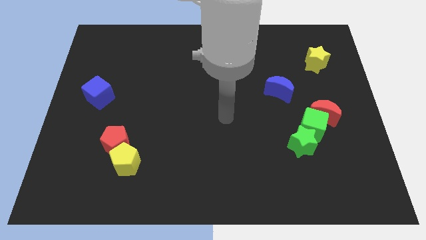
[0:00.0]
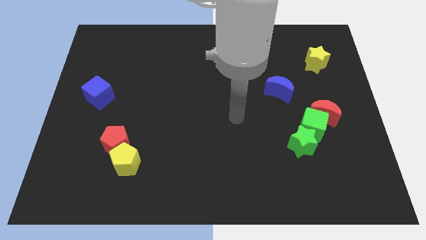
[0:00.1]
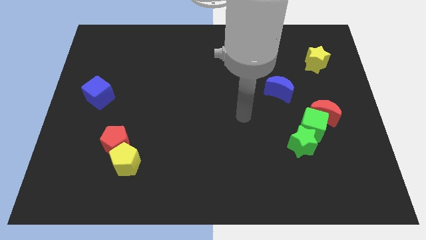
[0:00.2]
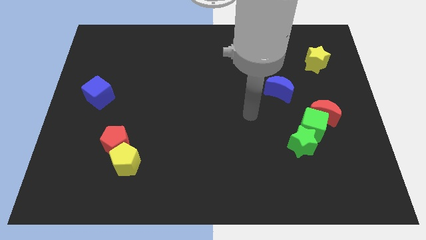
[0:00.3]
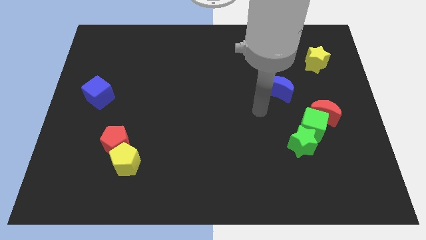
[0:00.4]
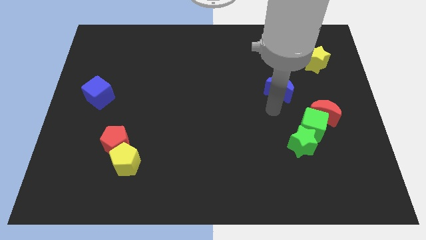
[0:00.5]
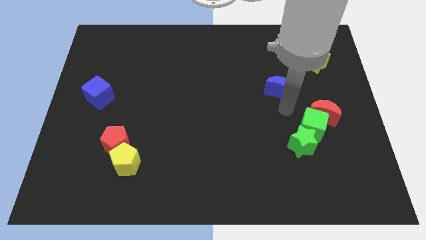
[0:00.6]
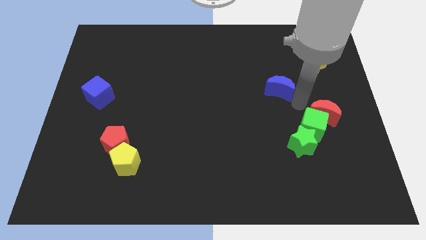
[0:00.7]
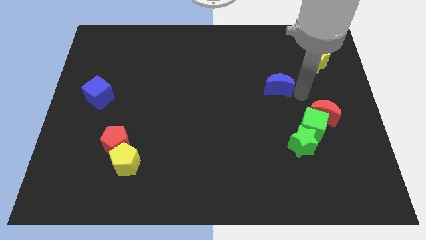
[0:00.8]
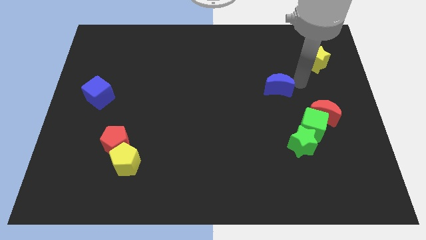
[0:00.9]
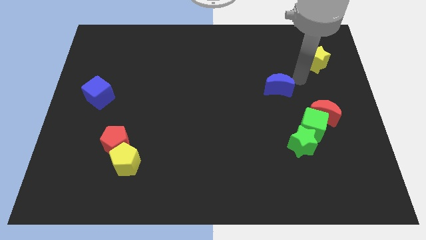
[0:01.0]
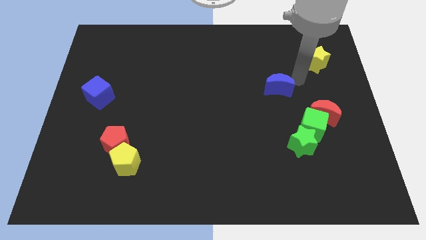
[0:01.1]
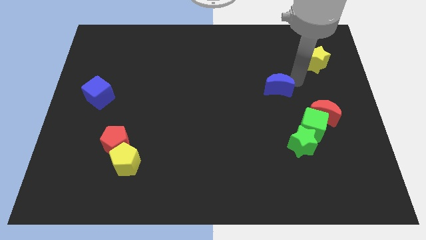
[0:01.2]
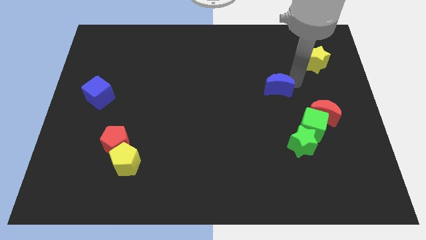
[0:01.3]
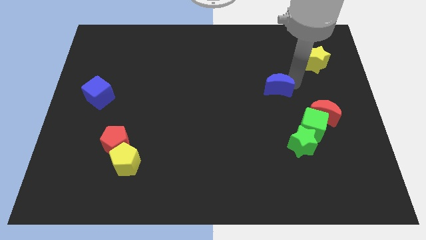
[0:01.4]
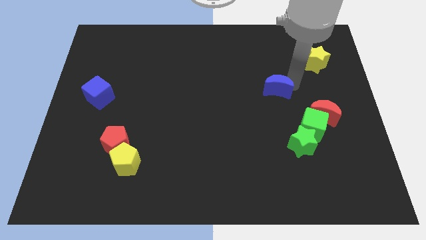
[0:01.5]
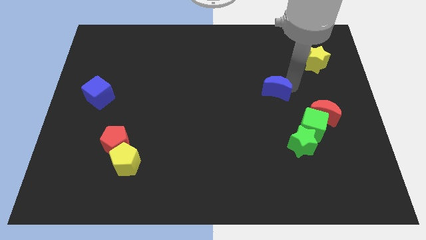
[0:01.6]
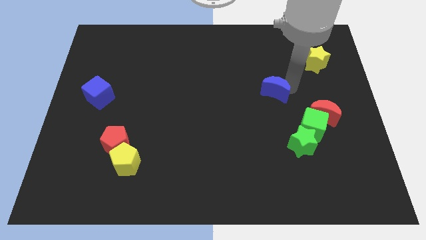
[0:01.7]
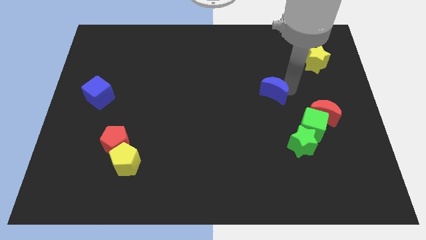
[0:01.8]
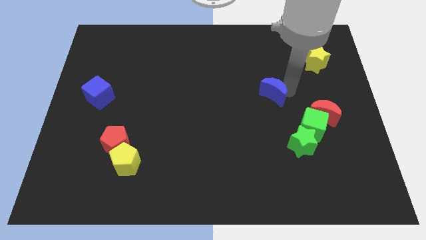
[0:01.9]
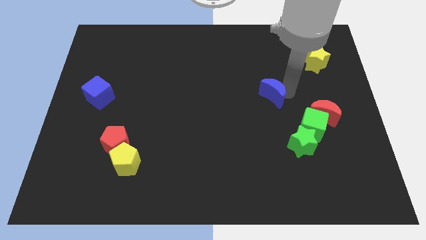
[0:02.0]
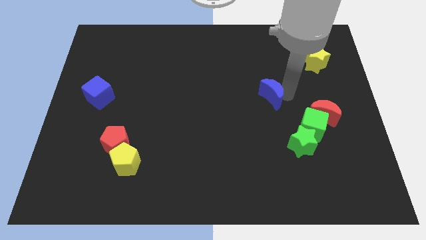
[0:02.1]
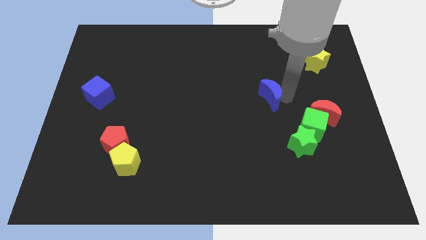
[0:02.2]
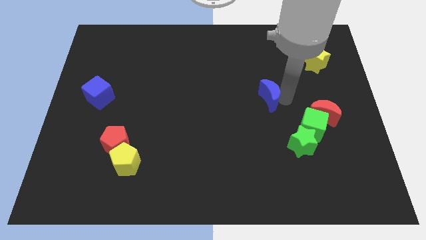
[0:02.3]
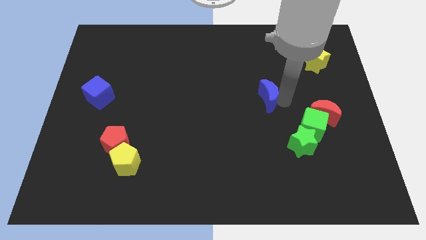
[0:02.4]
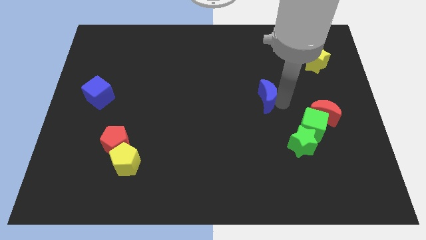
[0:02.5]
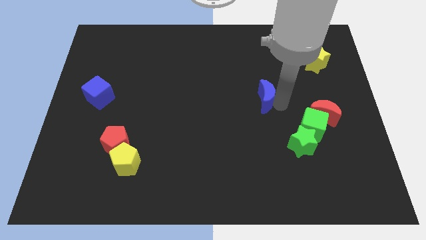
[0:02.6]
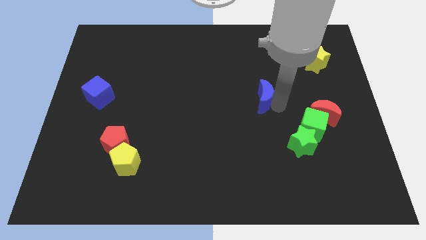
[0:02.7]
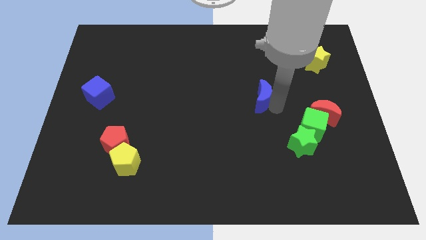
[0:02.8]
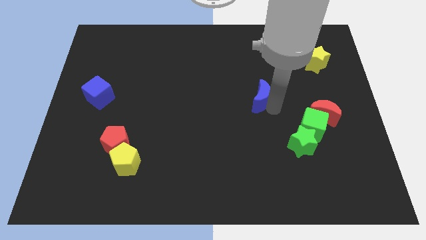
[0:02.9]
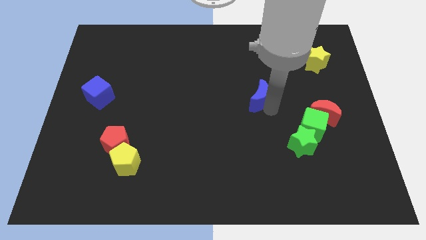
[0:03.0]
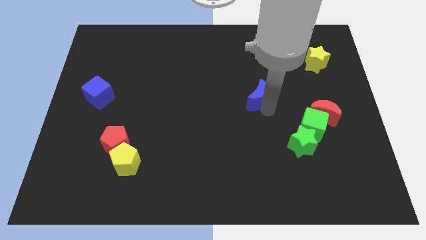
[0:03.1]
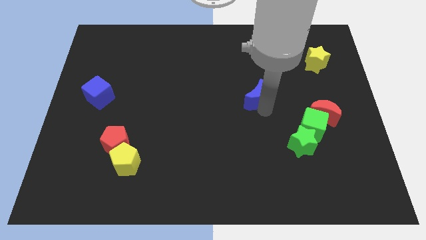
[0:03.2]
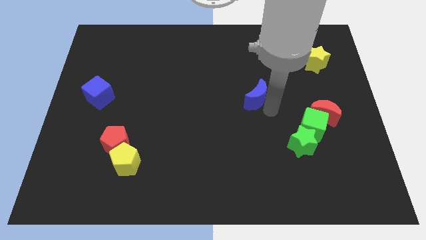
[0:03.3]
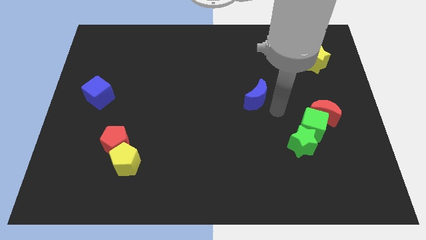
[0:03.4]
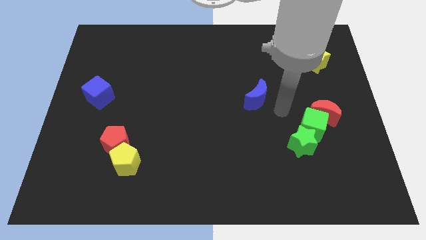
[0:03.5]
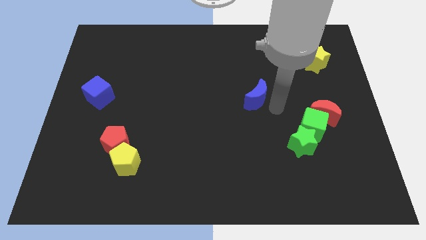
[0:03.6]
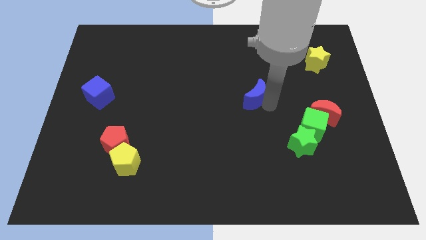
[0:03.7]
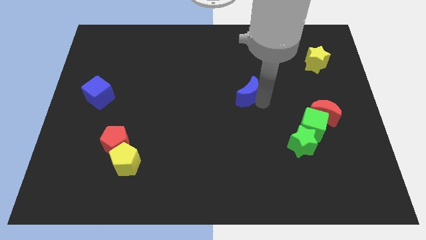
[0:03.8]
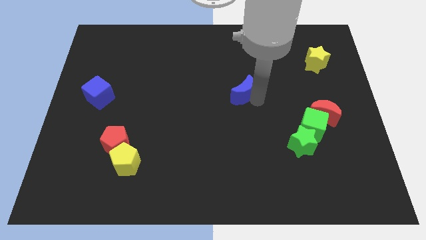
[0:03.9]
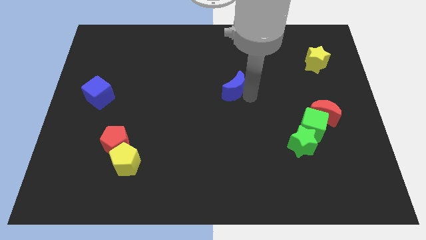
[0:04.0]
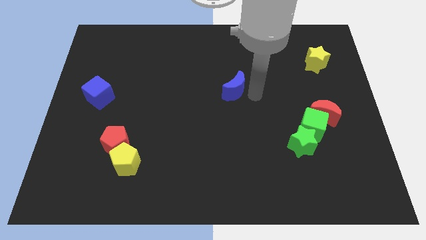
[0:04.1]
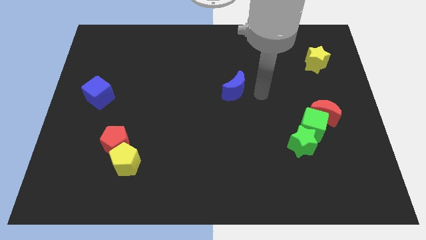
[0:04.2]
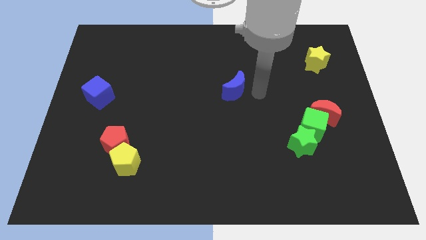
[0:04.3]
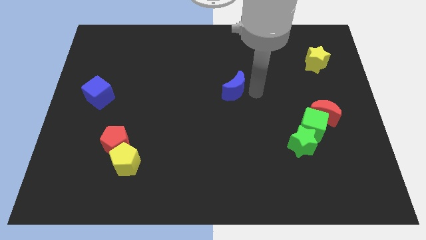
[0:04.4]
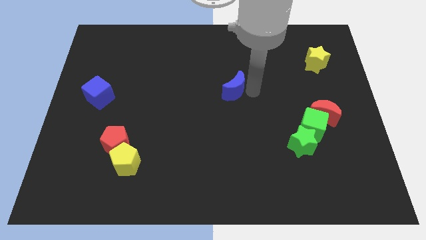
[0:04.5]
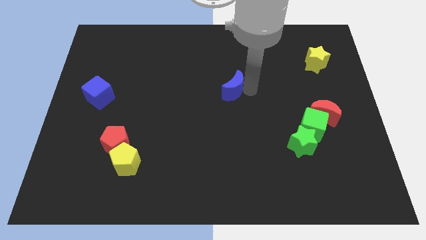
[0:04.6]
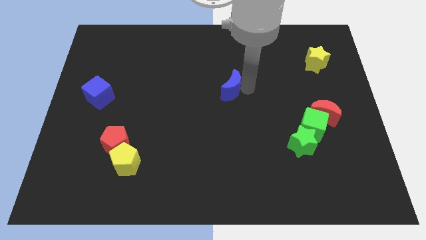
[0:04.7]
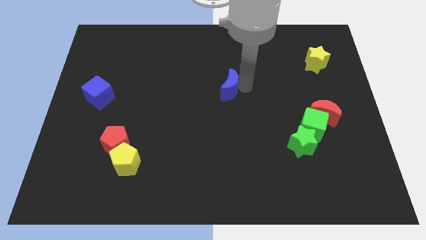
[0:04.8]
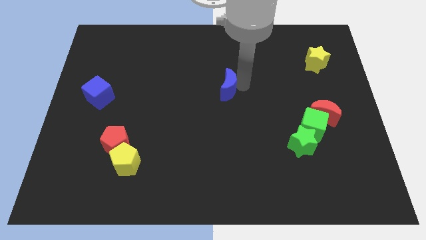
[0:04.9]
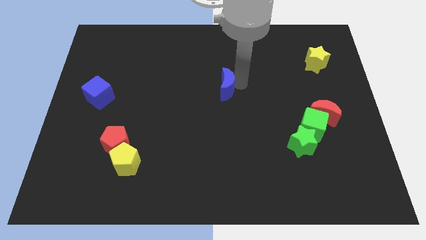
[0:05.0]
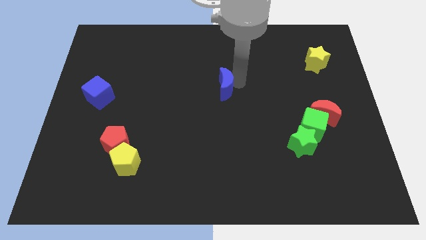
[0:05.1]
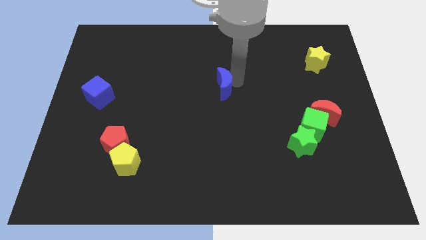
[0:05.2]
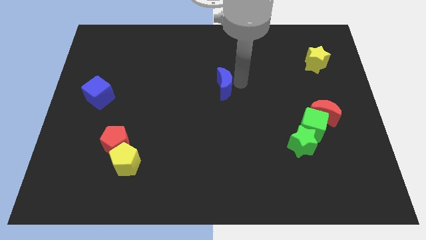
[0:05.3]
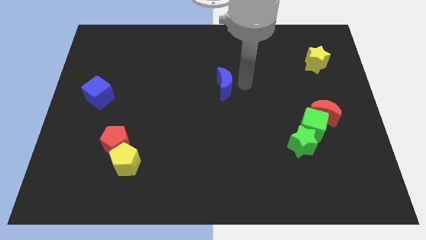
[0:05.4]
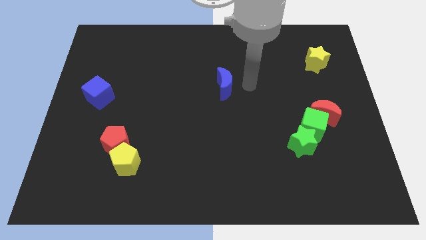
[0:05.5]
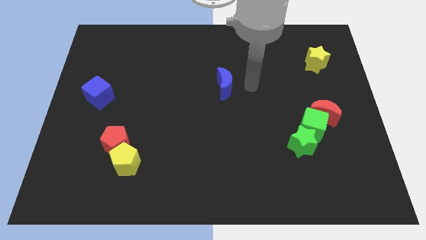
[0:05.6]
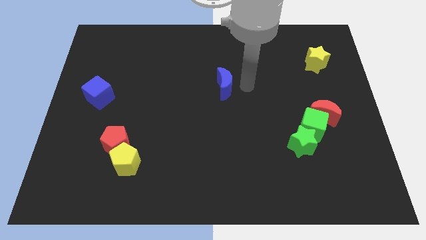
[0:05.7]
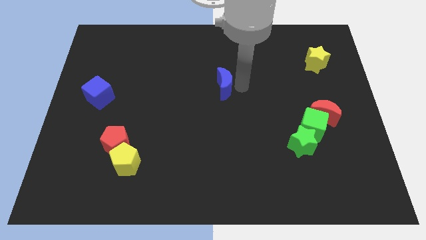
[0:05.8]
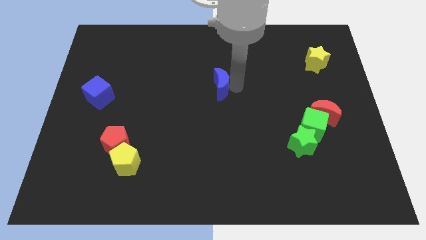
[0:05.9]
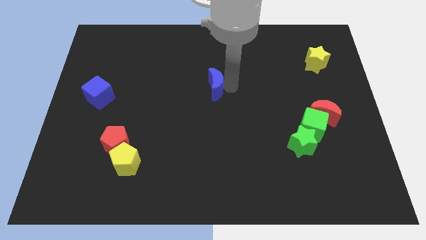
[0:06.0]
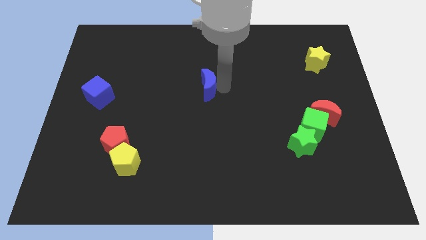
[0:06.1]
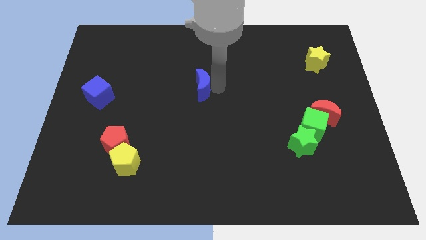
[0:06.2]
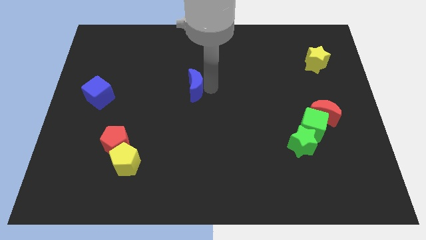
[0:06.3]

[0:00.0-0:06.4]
push the blue moon to the left

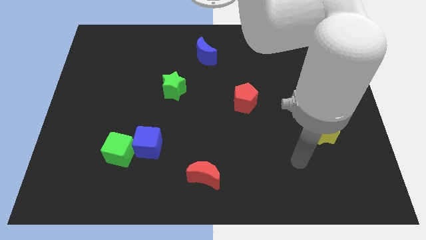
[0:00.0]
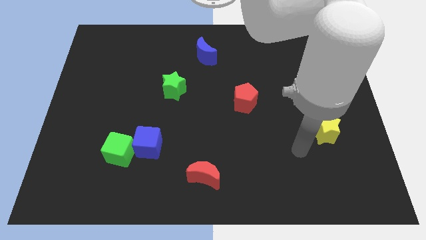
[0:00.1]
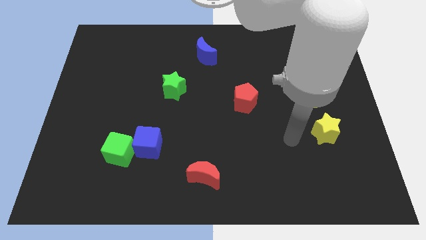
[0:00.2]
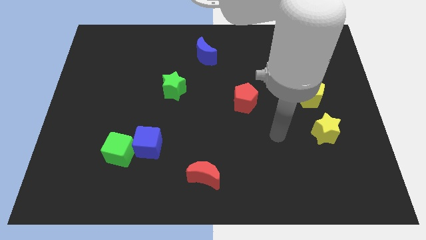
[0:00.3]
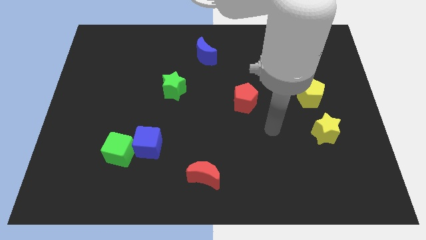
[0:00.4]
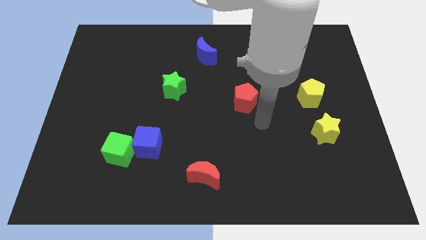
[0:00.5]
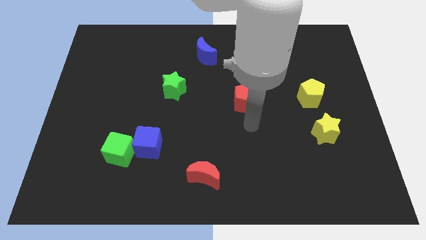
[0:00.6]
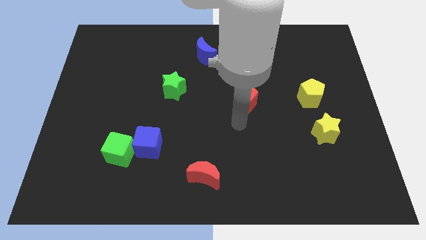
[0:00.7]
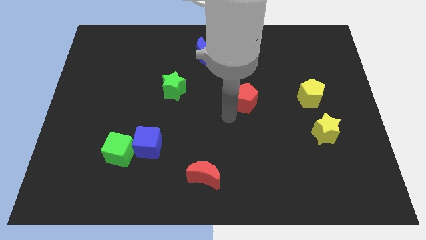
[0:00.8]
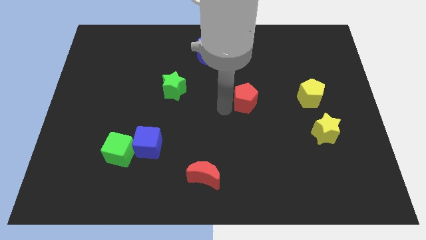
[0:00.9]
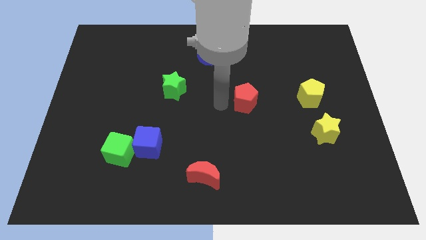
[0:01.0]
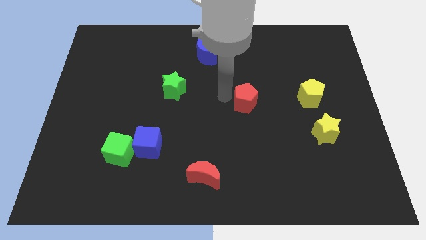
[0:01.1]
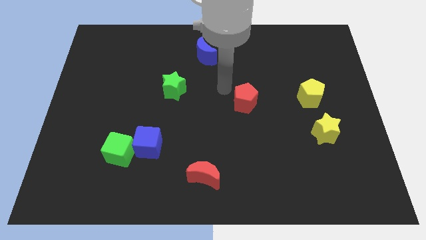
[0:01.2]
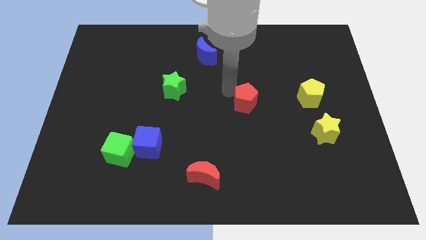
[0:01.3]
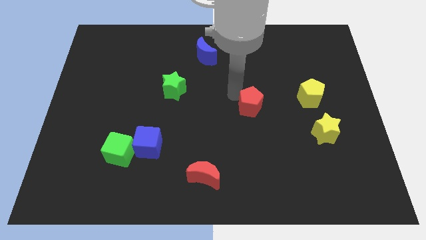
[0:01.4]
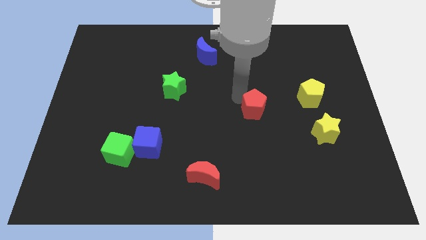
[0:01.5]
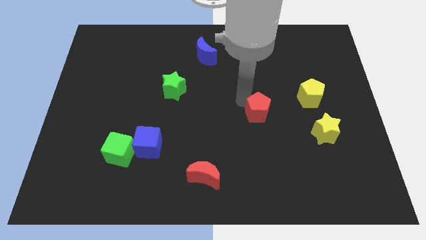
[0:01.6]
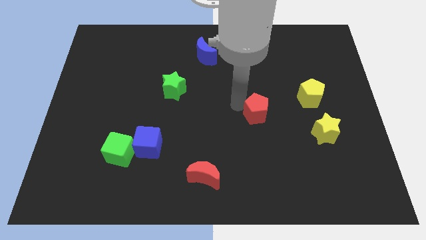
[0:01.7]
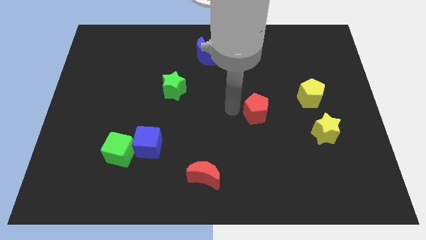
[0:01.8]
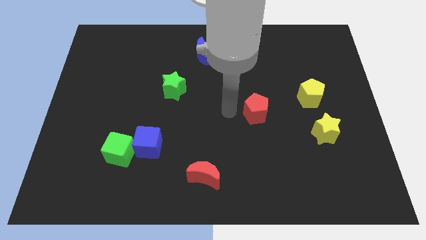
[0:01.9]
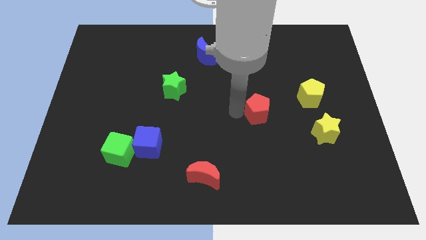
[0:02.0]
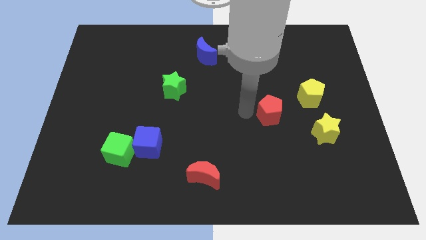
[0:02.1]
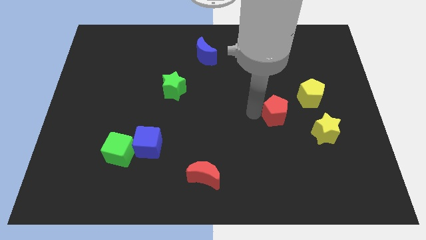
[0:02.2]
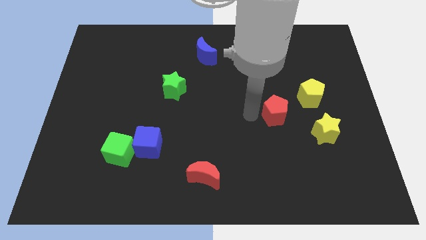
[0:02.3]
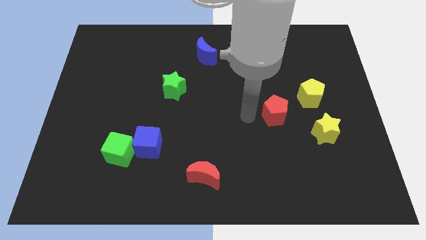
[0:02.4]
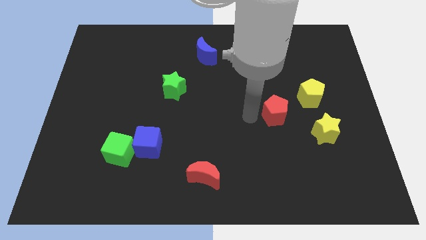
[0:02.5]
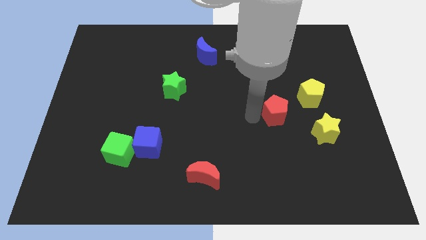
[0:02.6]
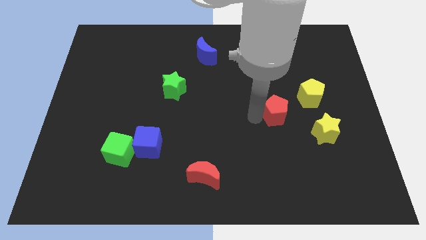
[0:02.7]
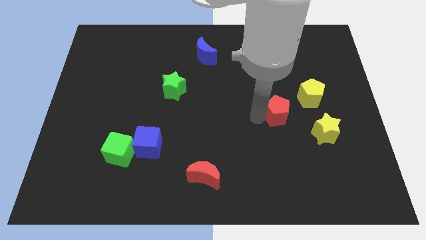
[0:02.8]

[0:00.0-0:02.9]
move the red pentagon right a little
